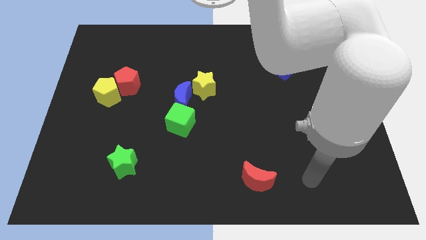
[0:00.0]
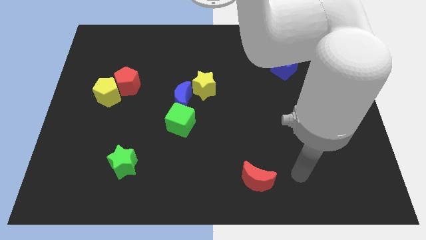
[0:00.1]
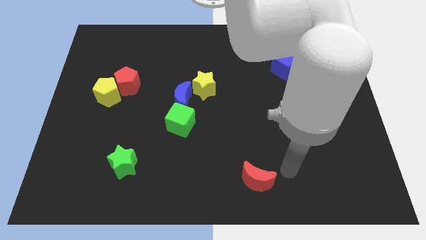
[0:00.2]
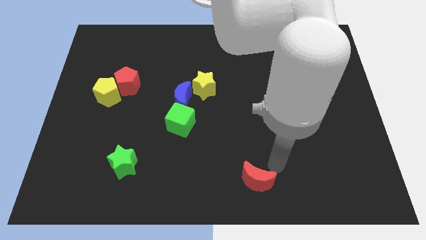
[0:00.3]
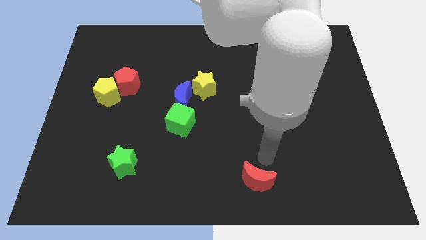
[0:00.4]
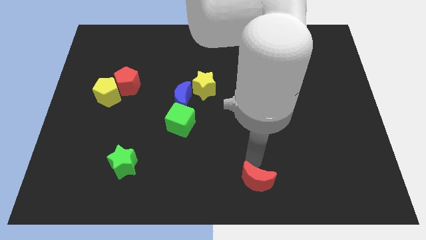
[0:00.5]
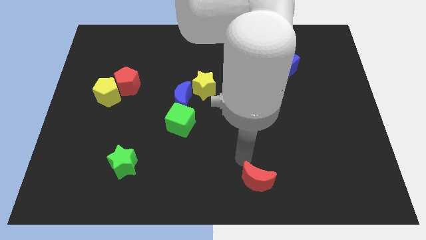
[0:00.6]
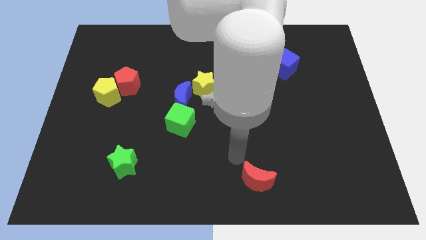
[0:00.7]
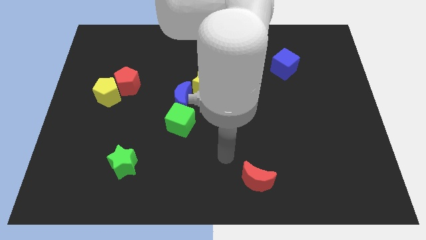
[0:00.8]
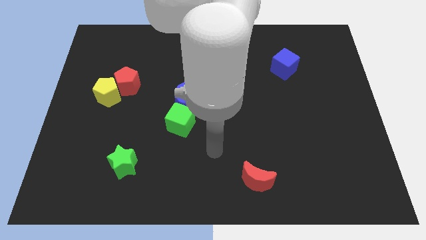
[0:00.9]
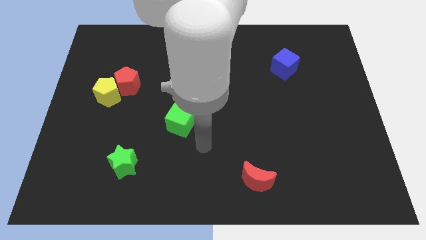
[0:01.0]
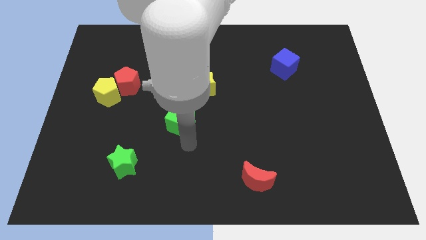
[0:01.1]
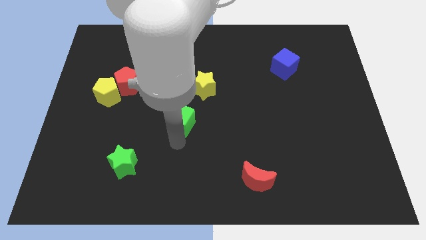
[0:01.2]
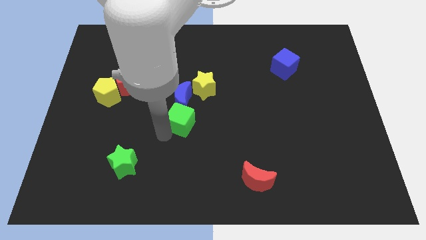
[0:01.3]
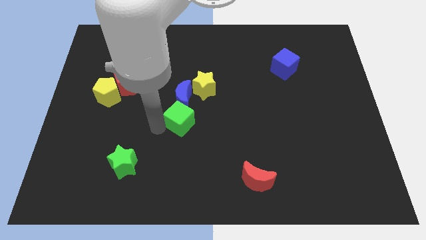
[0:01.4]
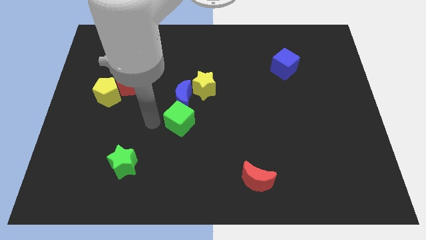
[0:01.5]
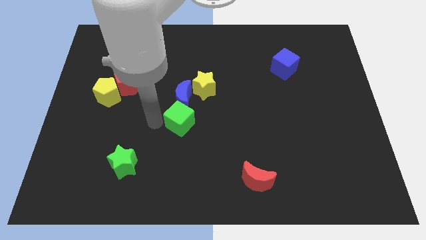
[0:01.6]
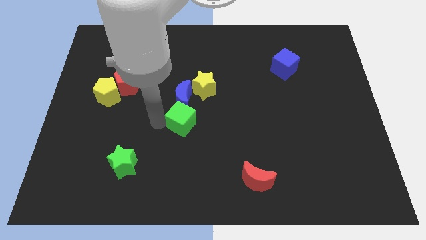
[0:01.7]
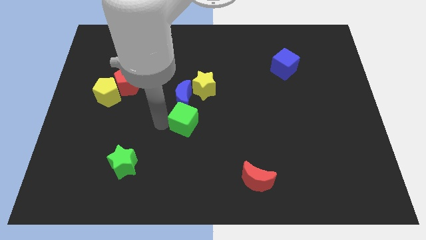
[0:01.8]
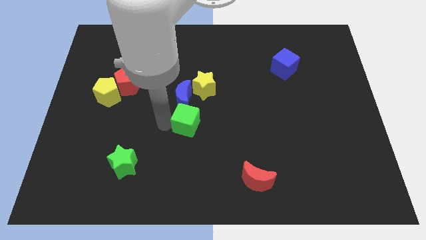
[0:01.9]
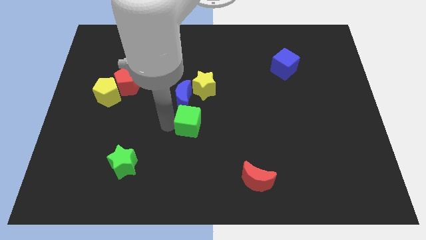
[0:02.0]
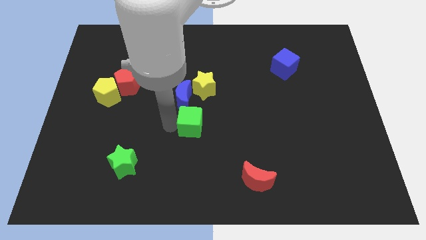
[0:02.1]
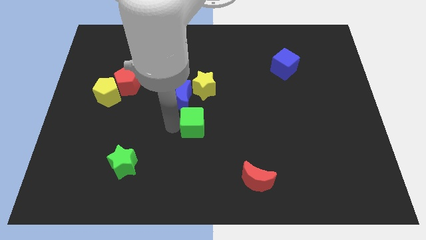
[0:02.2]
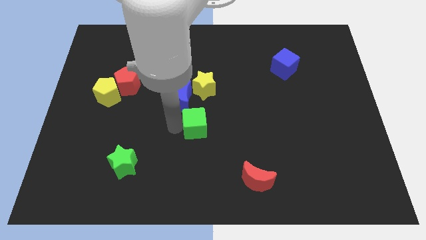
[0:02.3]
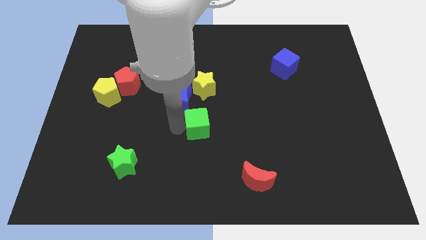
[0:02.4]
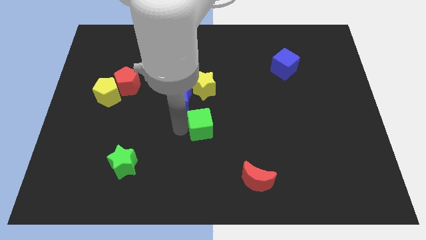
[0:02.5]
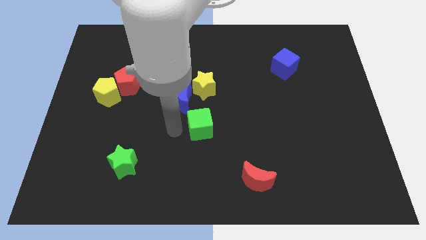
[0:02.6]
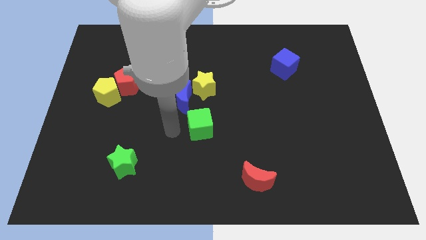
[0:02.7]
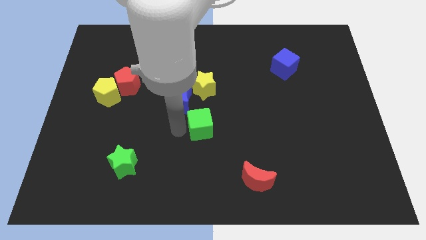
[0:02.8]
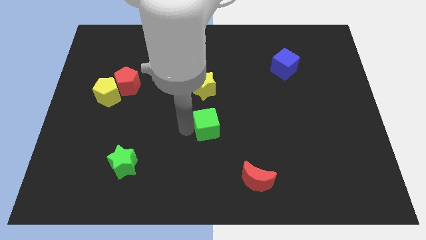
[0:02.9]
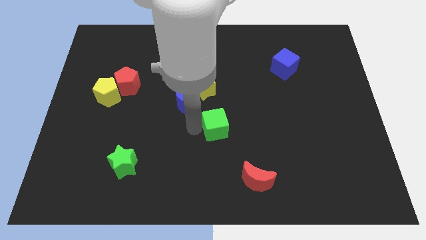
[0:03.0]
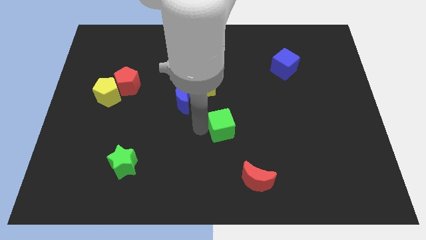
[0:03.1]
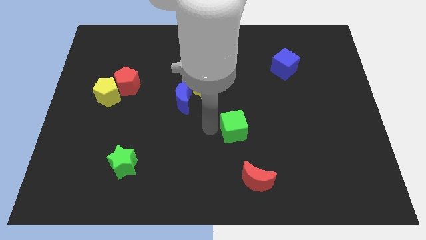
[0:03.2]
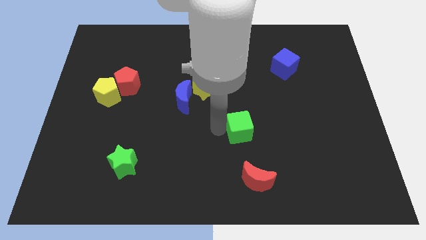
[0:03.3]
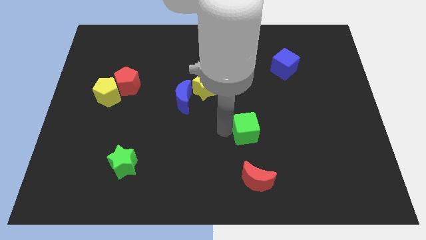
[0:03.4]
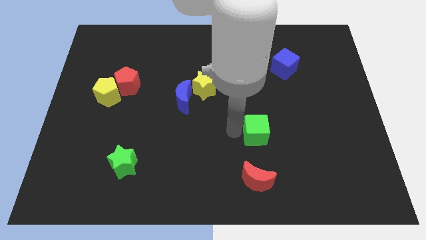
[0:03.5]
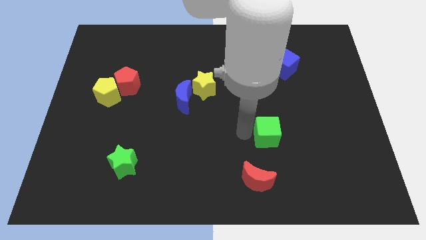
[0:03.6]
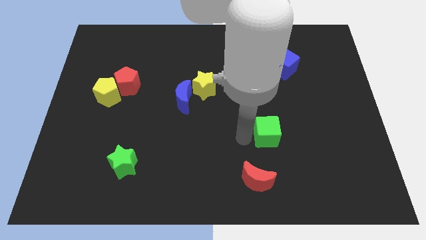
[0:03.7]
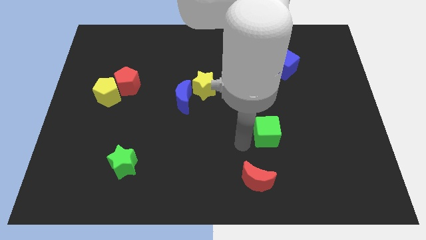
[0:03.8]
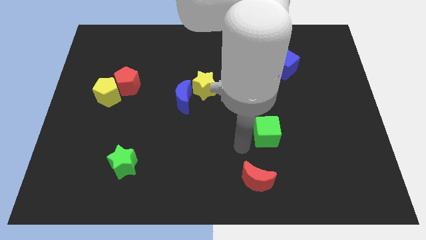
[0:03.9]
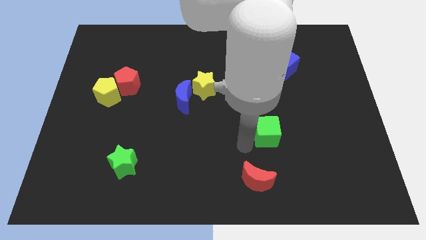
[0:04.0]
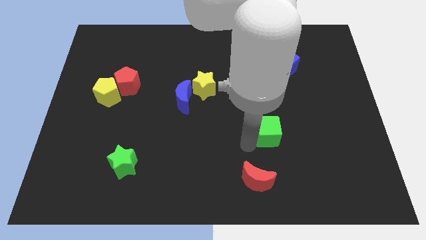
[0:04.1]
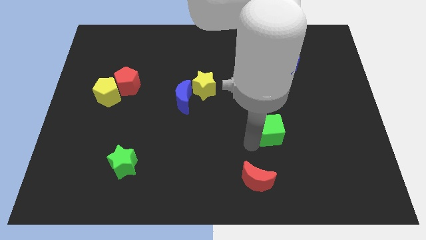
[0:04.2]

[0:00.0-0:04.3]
move the green cube to the right

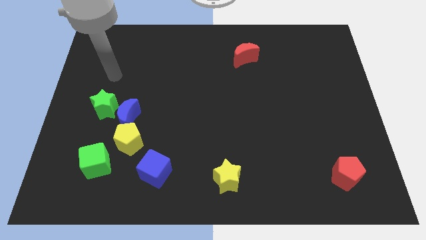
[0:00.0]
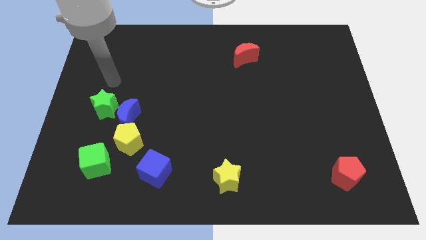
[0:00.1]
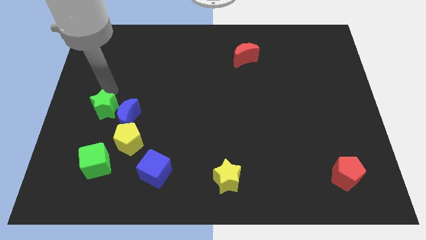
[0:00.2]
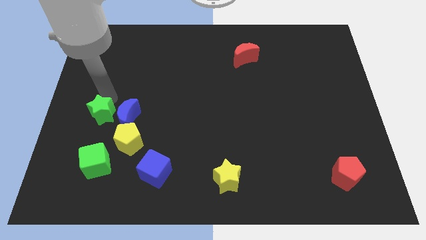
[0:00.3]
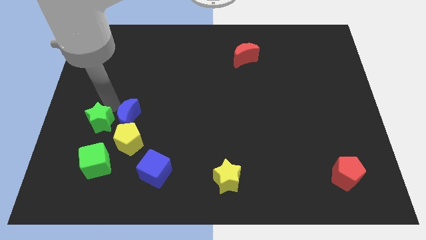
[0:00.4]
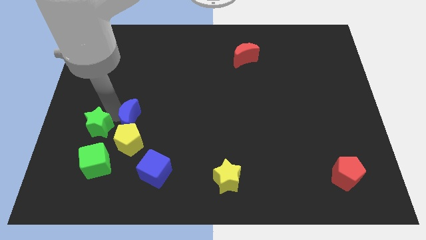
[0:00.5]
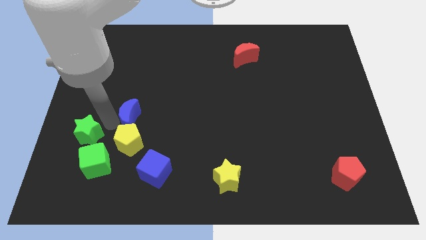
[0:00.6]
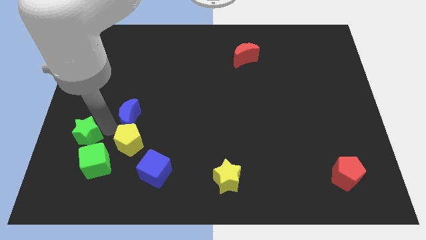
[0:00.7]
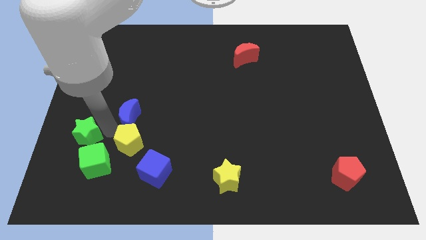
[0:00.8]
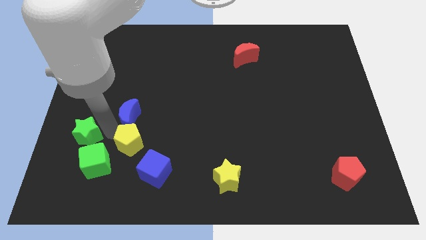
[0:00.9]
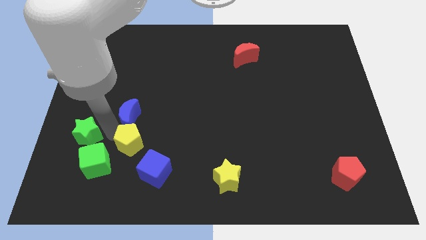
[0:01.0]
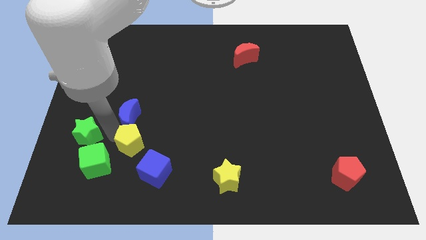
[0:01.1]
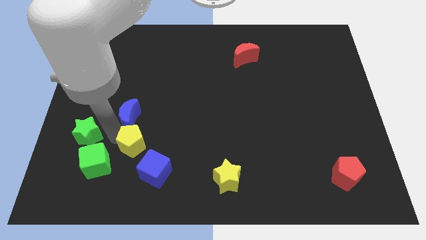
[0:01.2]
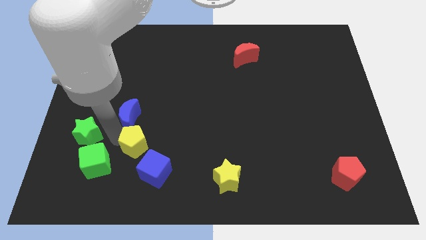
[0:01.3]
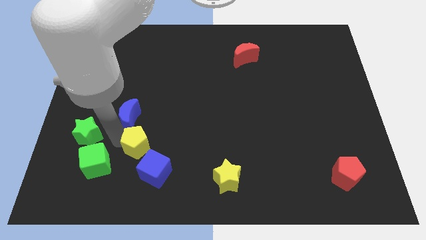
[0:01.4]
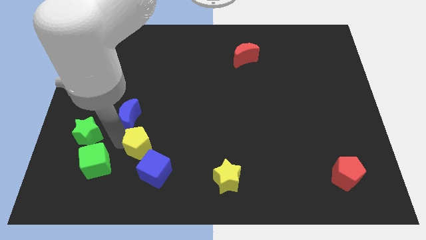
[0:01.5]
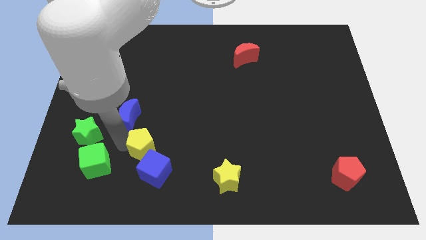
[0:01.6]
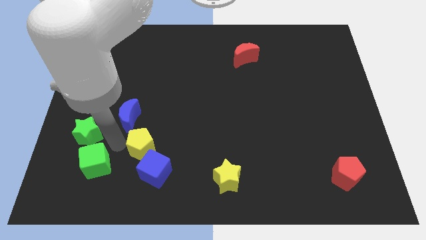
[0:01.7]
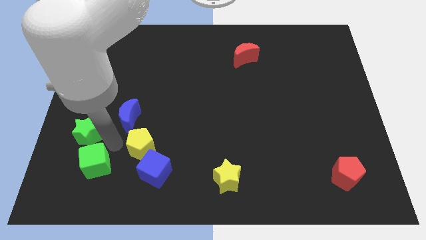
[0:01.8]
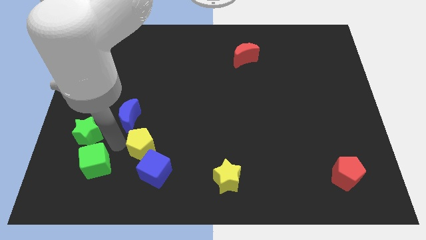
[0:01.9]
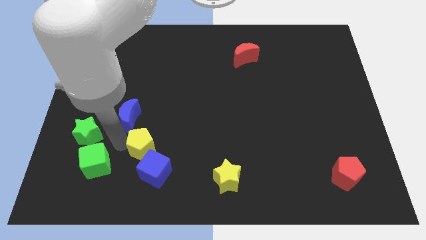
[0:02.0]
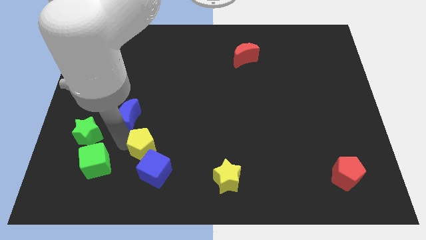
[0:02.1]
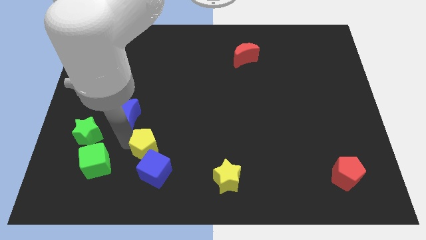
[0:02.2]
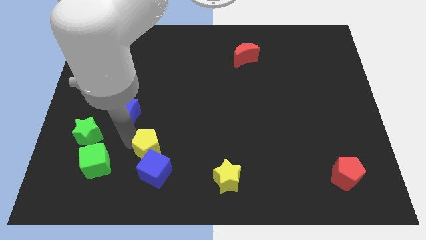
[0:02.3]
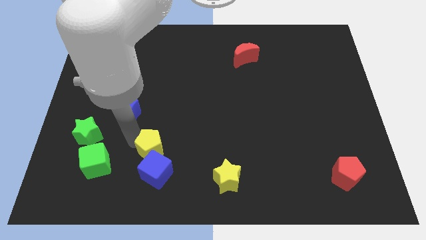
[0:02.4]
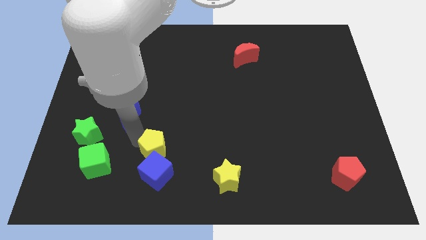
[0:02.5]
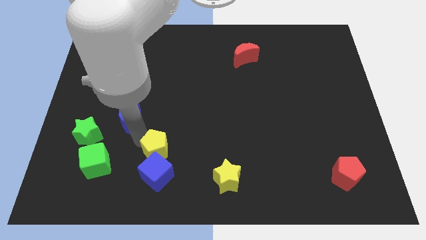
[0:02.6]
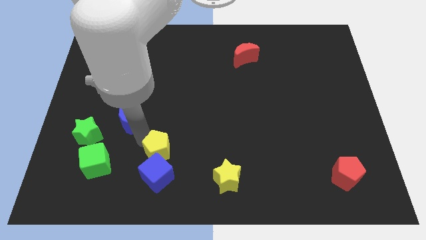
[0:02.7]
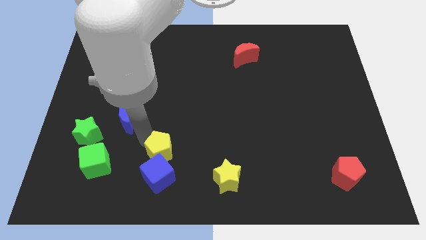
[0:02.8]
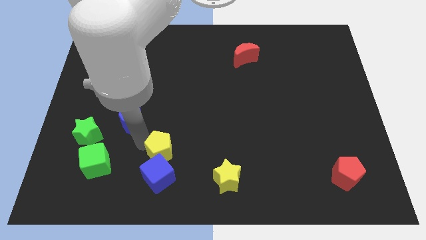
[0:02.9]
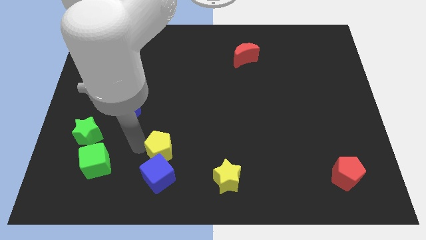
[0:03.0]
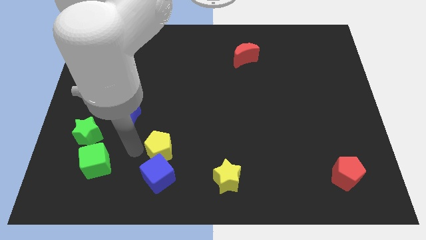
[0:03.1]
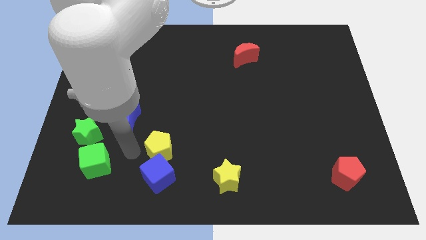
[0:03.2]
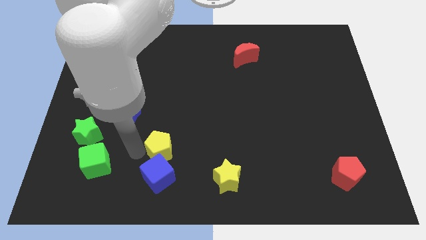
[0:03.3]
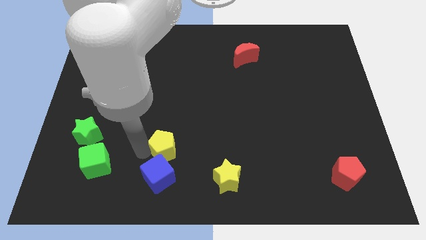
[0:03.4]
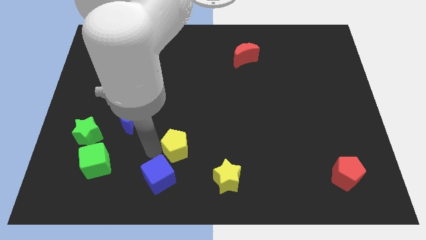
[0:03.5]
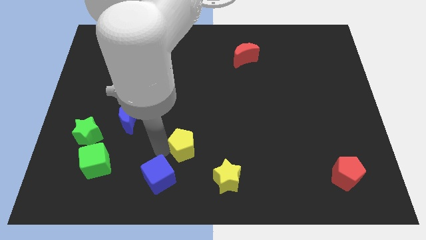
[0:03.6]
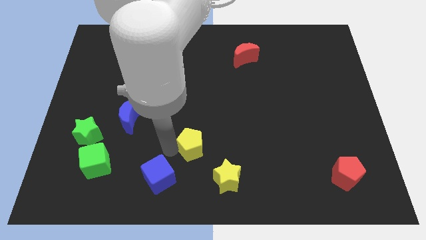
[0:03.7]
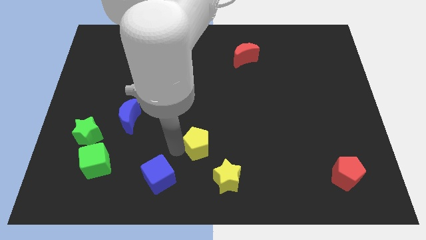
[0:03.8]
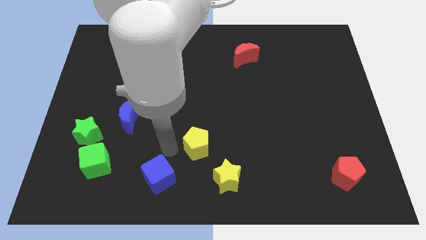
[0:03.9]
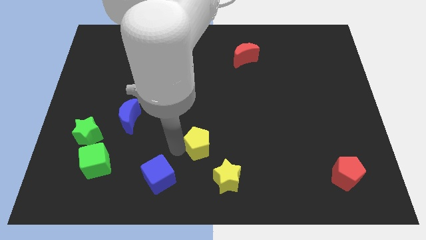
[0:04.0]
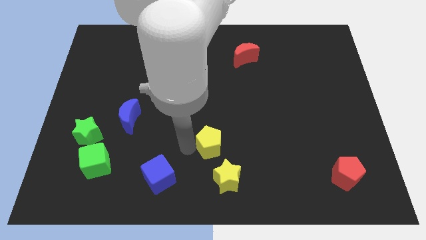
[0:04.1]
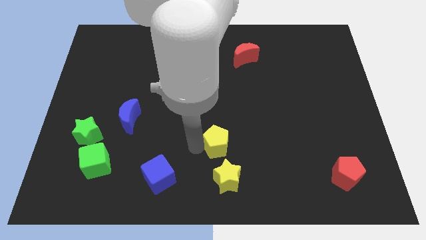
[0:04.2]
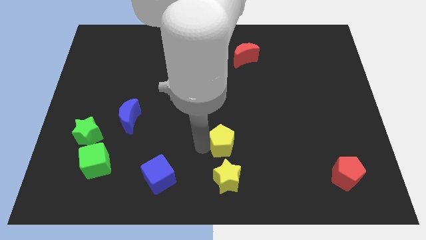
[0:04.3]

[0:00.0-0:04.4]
slide the yellow pentagon right
